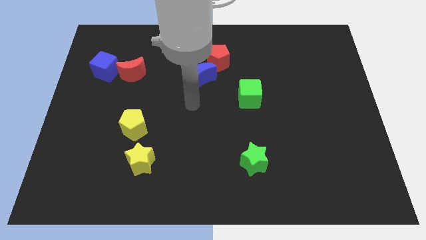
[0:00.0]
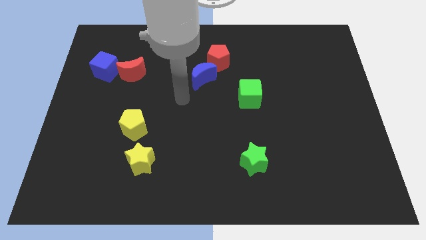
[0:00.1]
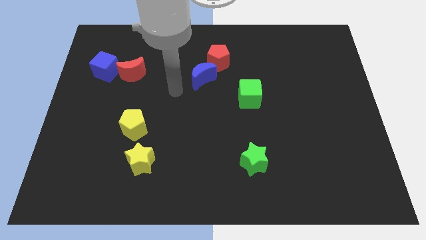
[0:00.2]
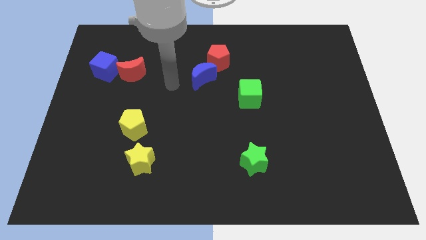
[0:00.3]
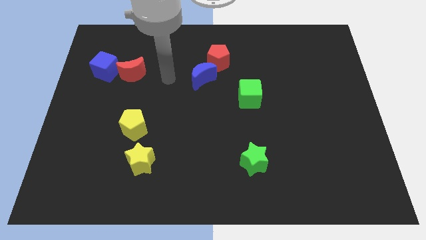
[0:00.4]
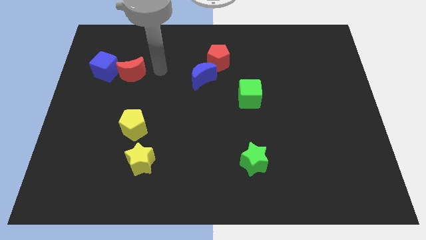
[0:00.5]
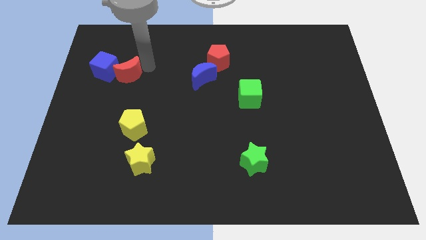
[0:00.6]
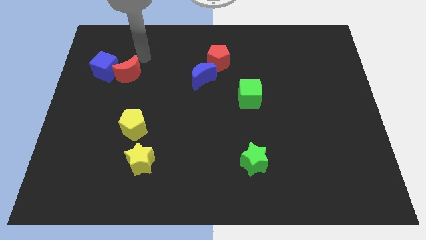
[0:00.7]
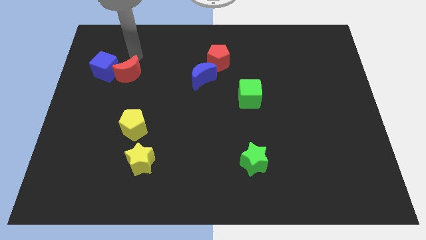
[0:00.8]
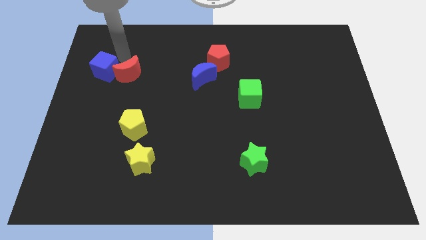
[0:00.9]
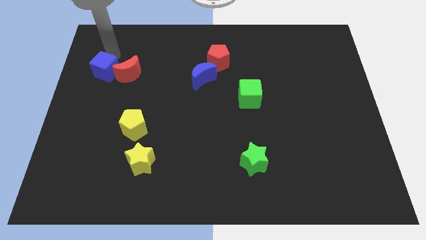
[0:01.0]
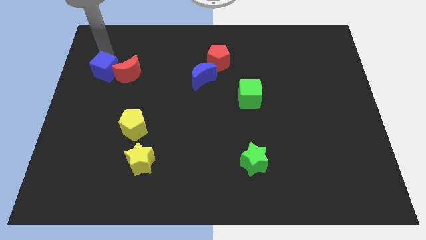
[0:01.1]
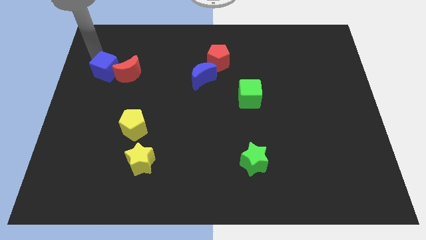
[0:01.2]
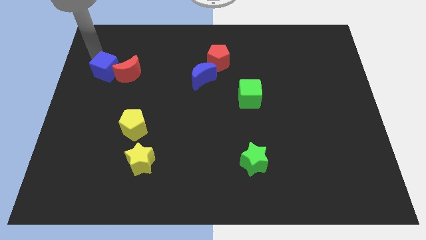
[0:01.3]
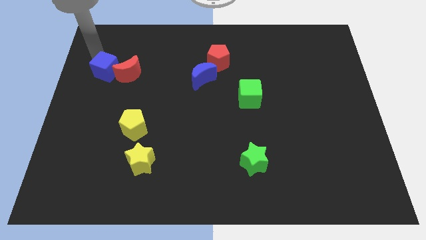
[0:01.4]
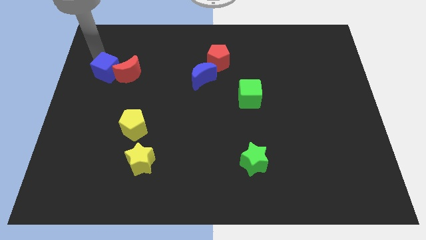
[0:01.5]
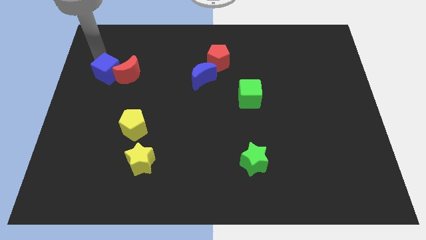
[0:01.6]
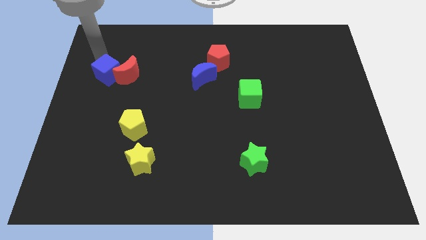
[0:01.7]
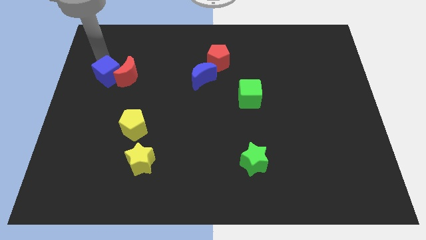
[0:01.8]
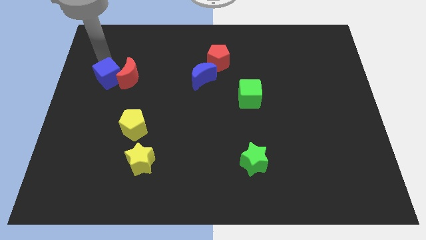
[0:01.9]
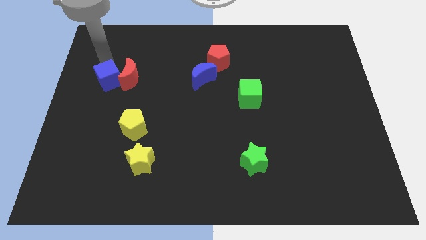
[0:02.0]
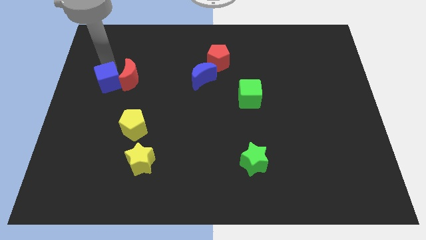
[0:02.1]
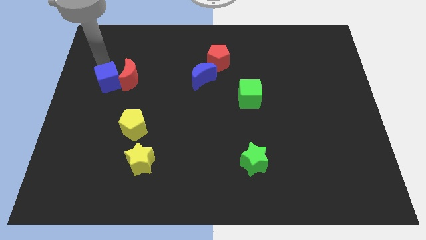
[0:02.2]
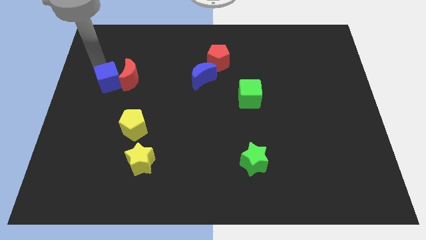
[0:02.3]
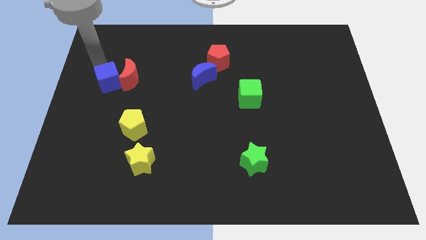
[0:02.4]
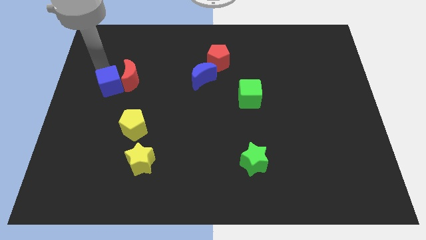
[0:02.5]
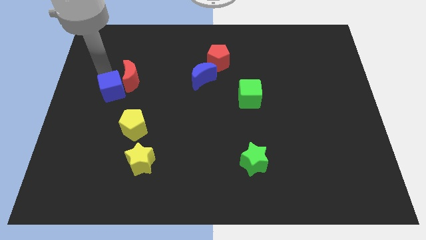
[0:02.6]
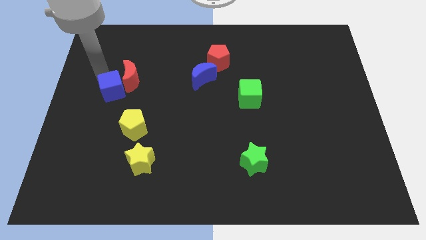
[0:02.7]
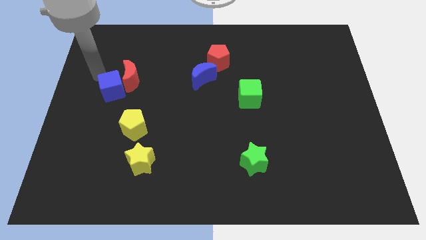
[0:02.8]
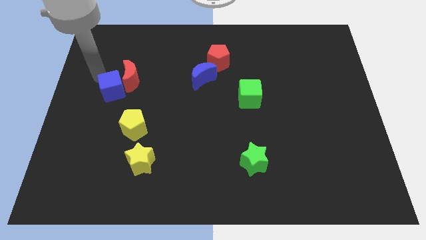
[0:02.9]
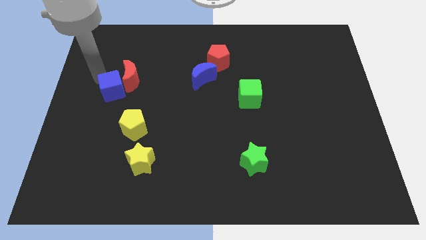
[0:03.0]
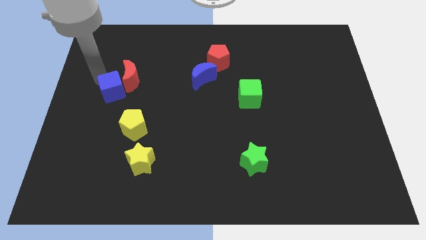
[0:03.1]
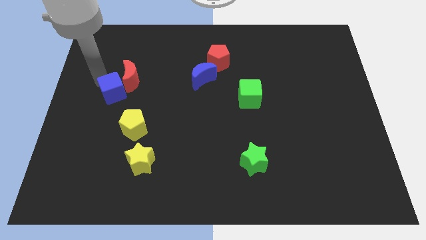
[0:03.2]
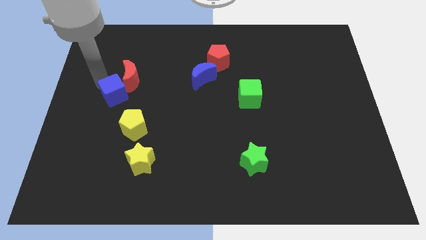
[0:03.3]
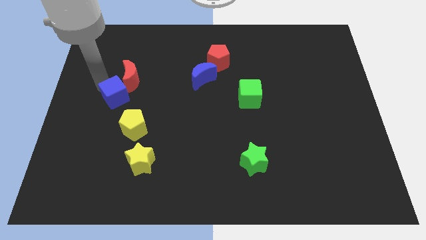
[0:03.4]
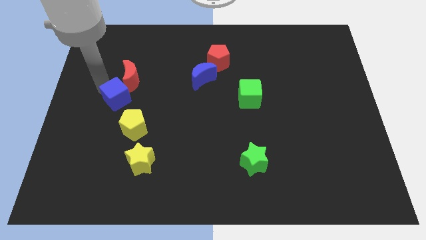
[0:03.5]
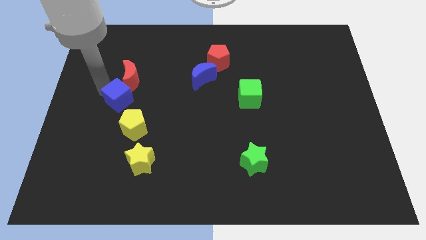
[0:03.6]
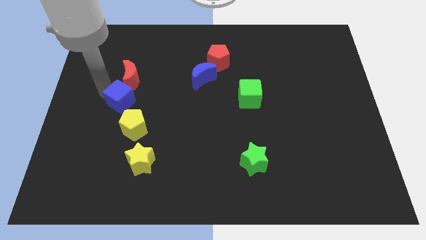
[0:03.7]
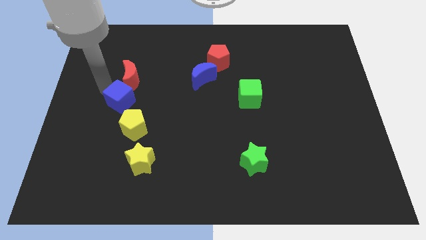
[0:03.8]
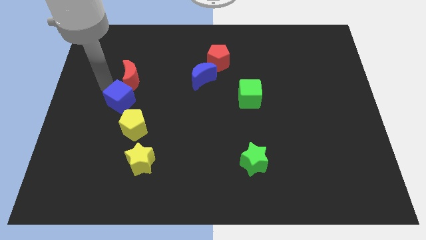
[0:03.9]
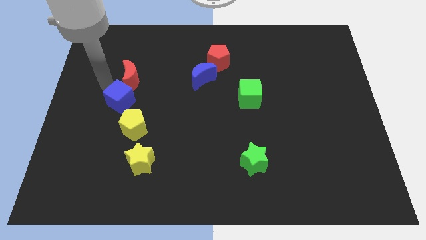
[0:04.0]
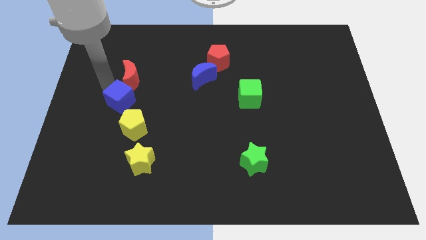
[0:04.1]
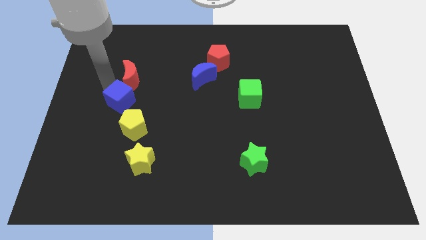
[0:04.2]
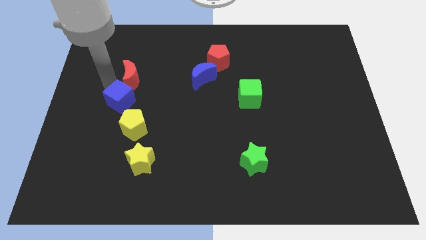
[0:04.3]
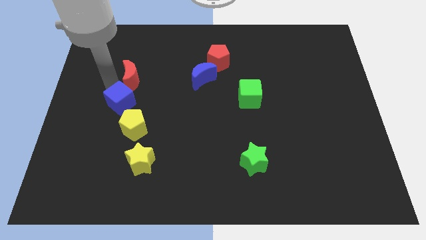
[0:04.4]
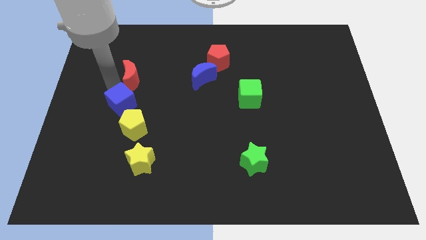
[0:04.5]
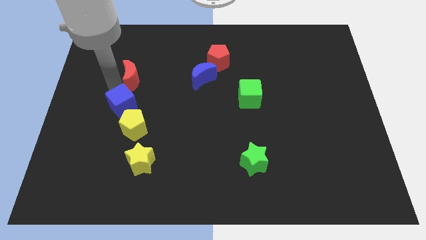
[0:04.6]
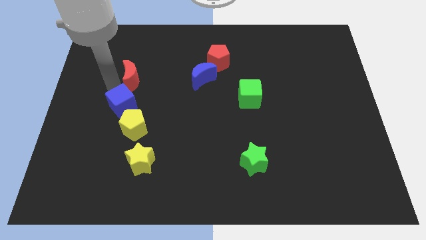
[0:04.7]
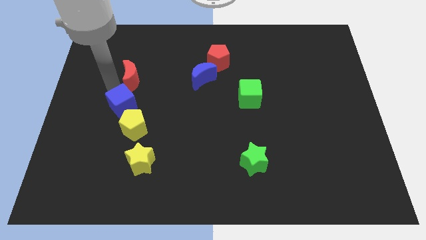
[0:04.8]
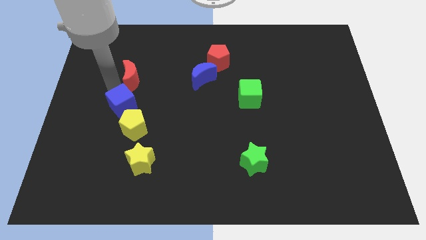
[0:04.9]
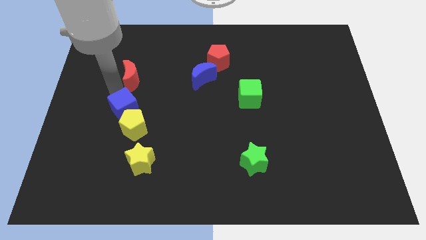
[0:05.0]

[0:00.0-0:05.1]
push the blue cube to the yellow pentagon

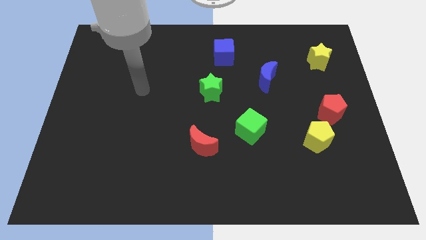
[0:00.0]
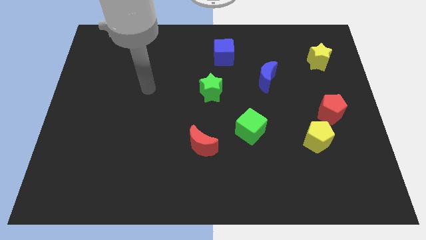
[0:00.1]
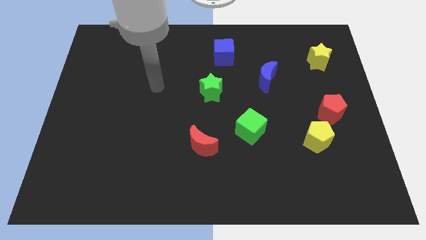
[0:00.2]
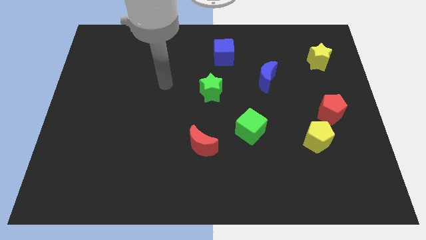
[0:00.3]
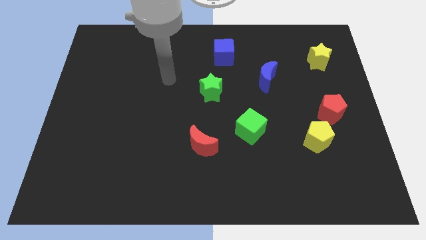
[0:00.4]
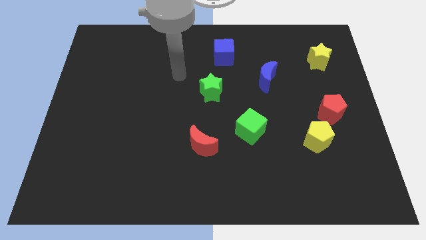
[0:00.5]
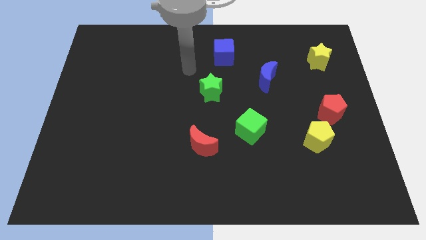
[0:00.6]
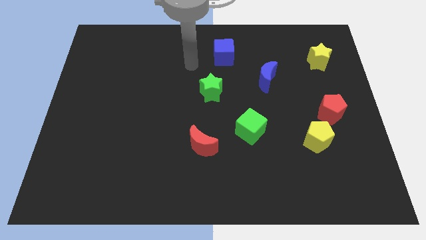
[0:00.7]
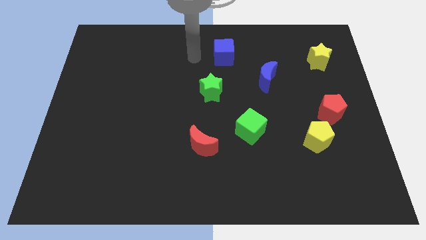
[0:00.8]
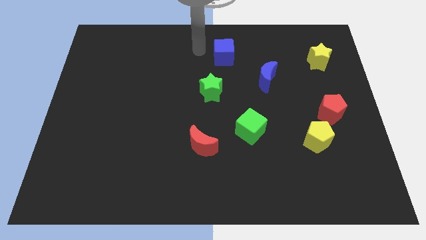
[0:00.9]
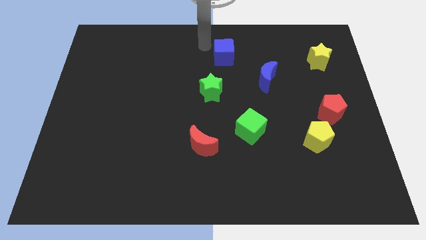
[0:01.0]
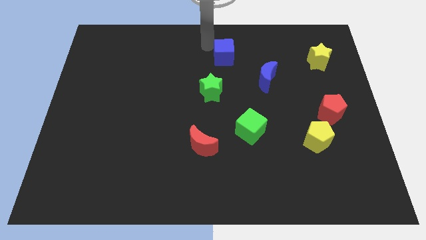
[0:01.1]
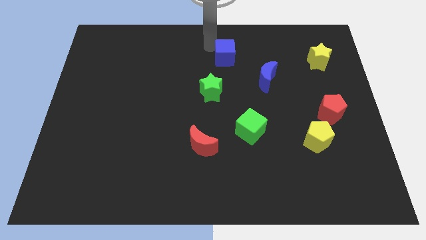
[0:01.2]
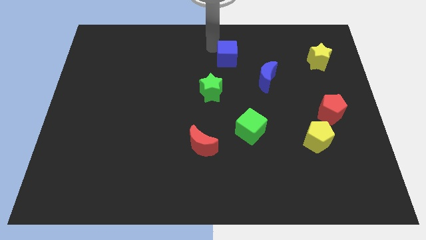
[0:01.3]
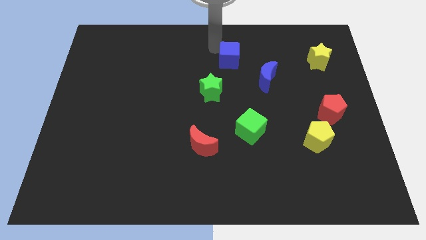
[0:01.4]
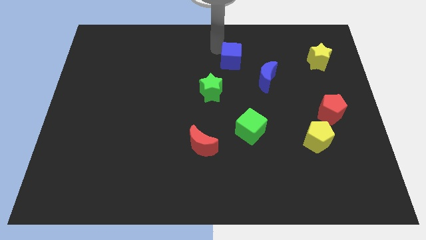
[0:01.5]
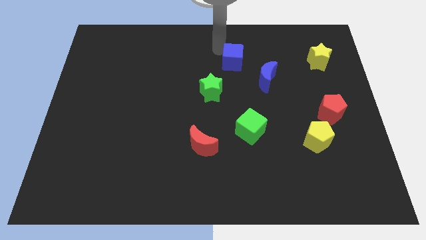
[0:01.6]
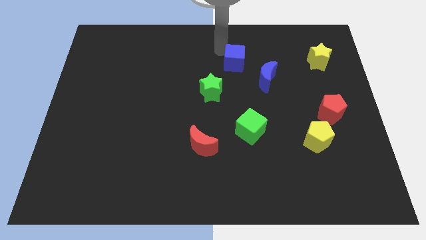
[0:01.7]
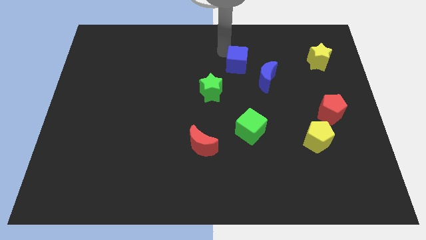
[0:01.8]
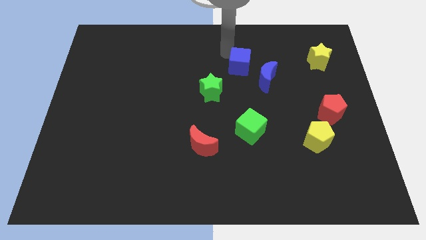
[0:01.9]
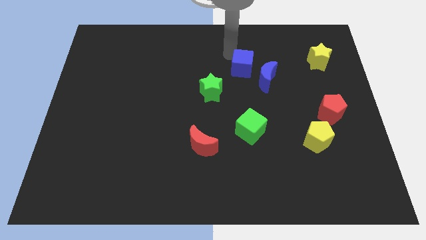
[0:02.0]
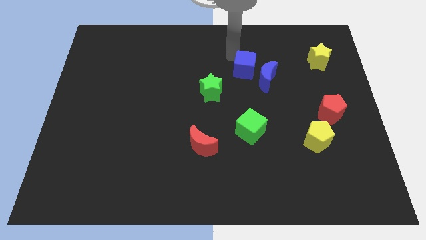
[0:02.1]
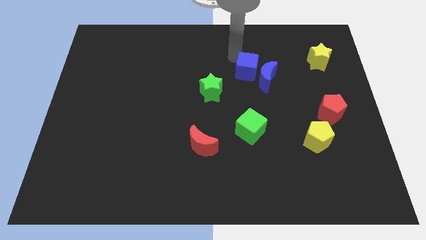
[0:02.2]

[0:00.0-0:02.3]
push the blue cube towards the blue moon
